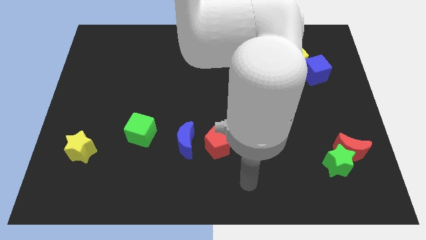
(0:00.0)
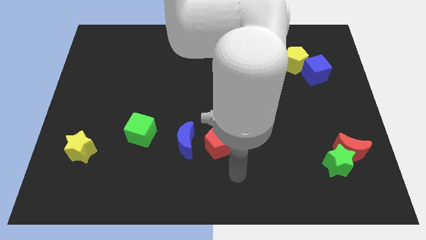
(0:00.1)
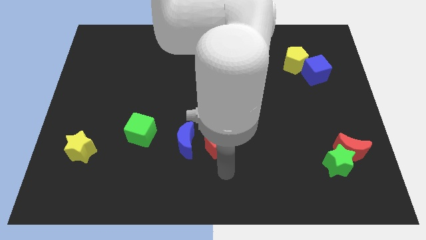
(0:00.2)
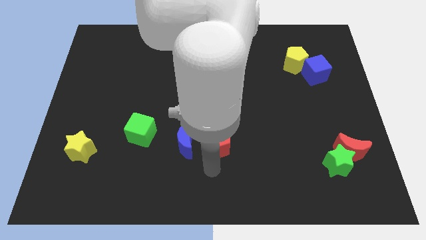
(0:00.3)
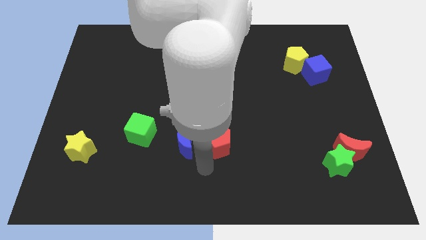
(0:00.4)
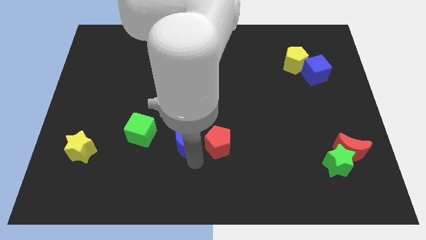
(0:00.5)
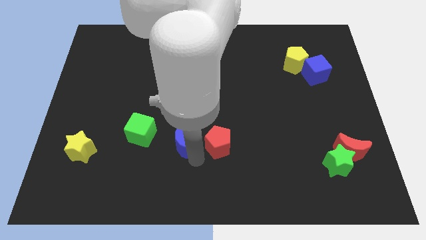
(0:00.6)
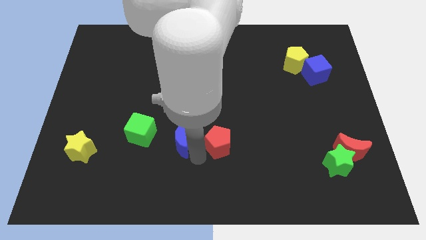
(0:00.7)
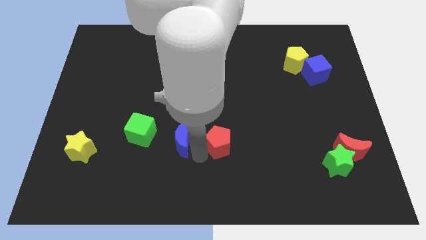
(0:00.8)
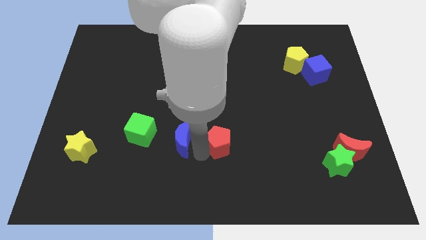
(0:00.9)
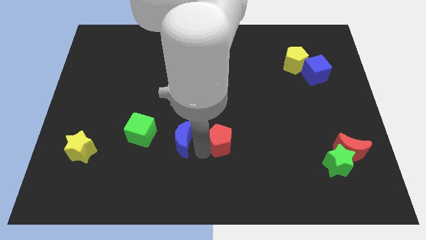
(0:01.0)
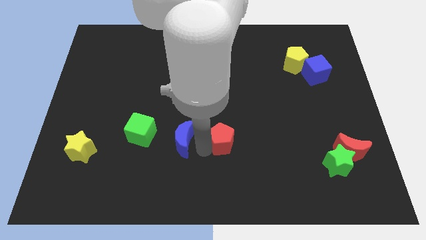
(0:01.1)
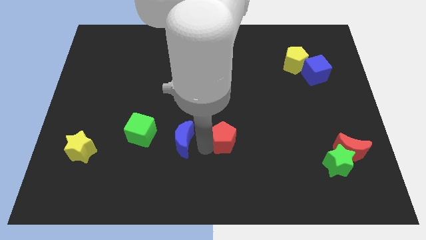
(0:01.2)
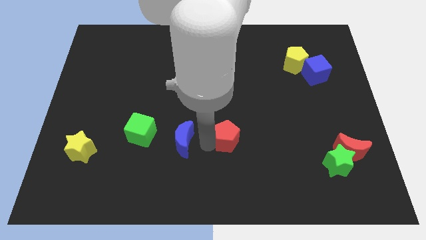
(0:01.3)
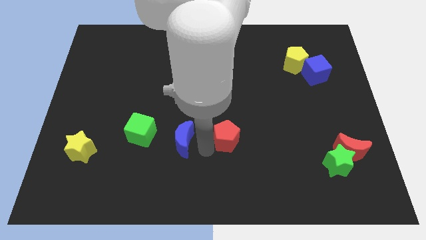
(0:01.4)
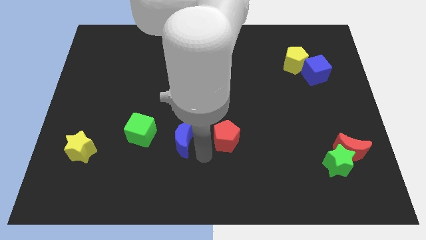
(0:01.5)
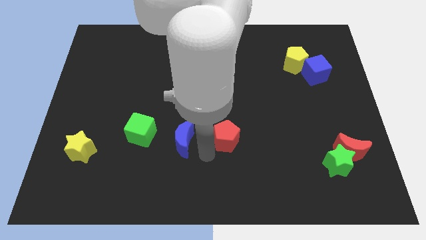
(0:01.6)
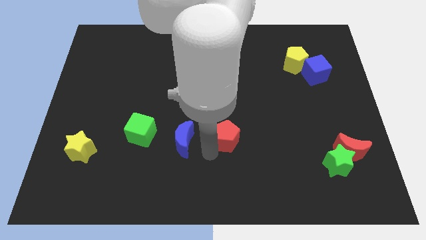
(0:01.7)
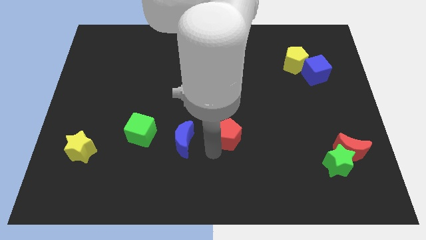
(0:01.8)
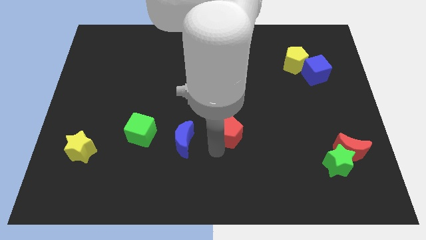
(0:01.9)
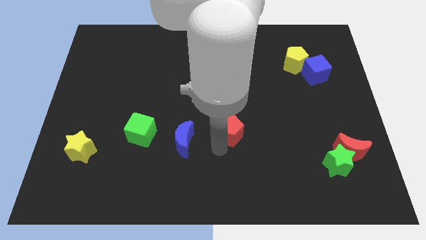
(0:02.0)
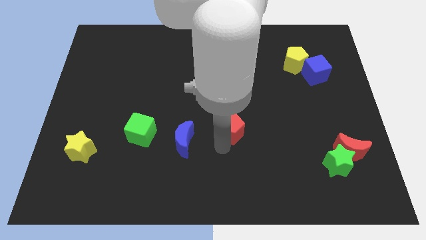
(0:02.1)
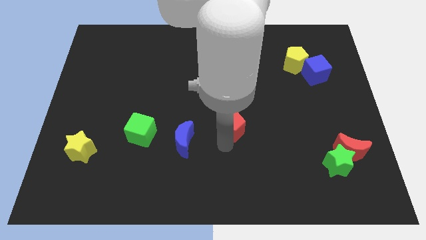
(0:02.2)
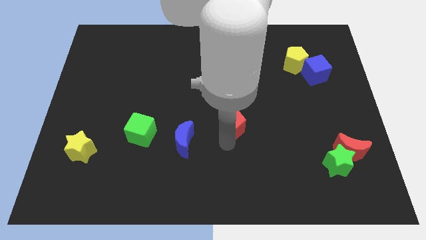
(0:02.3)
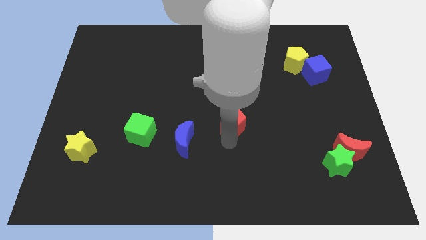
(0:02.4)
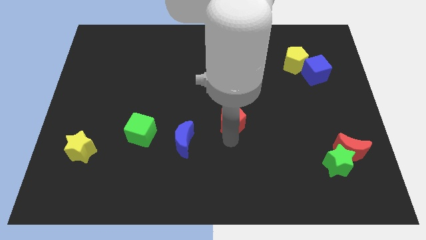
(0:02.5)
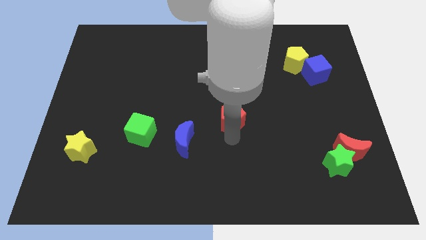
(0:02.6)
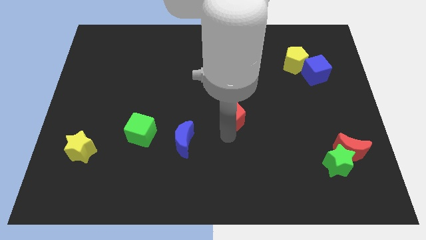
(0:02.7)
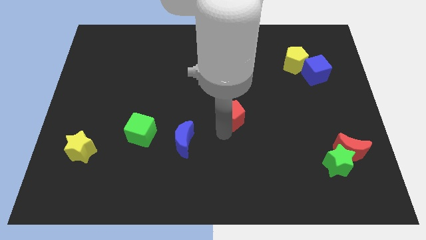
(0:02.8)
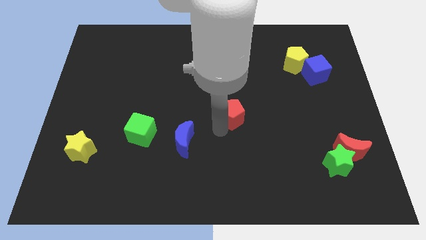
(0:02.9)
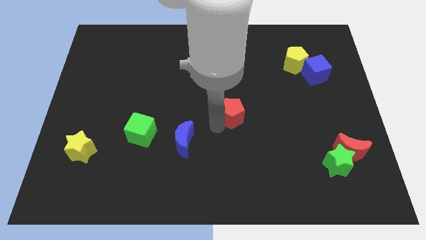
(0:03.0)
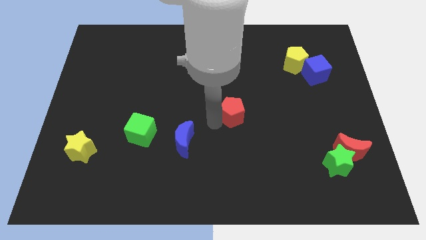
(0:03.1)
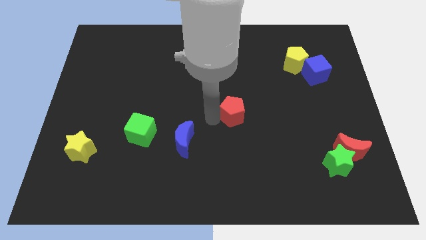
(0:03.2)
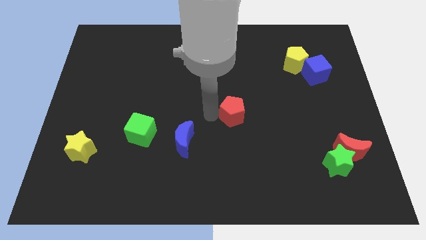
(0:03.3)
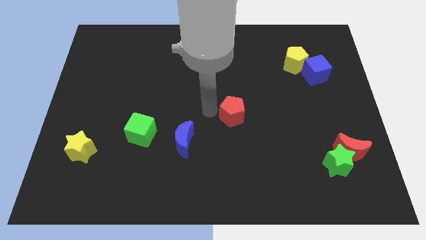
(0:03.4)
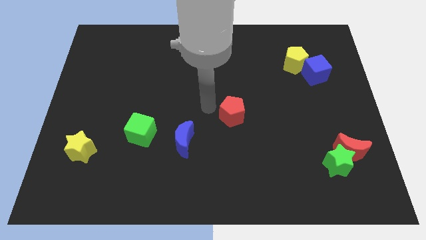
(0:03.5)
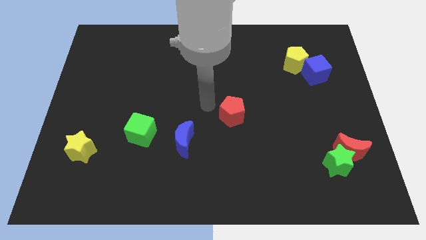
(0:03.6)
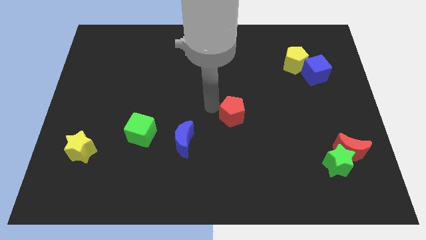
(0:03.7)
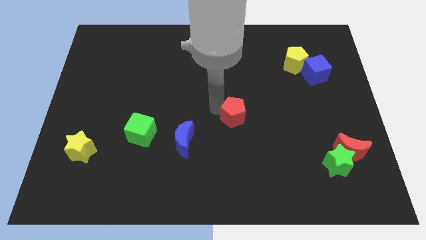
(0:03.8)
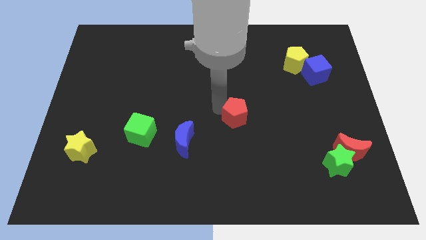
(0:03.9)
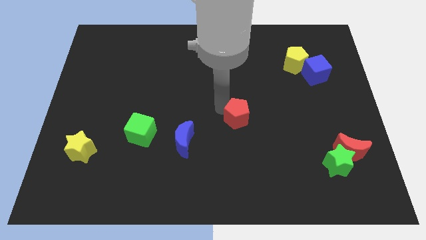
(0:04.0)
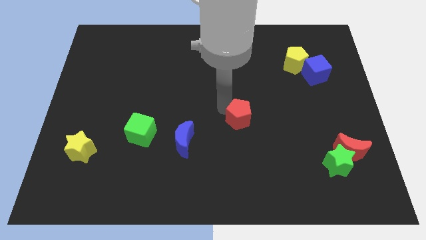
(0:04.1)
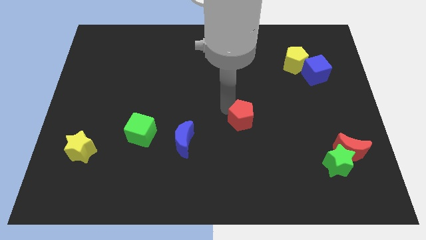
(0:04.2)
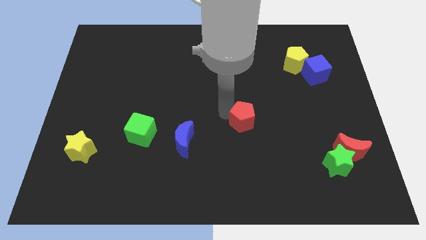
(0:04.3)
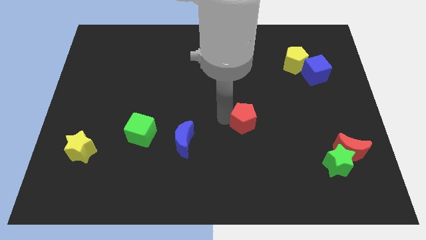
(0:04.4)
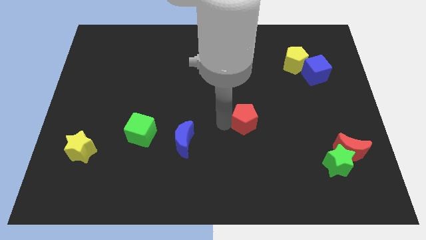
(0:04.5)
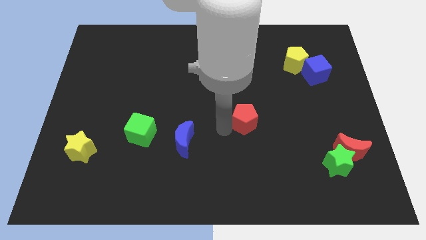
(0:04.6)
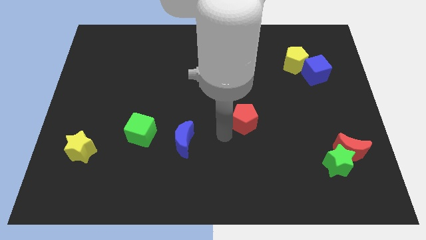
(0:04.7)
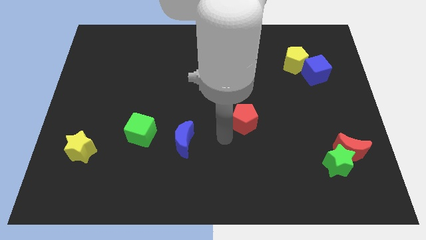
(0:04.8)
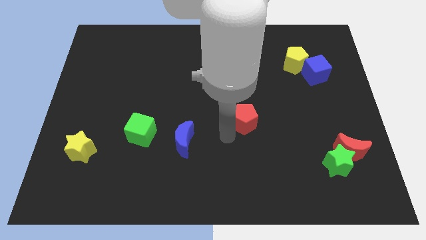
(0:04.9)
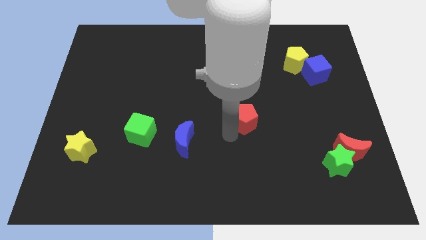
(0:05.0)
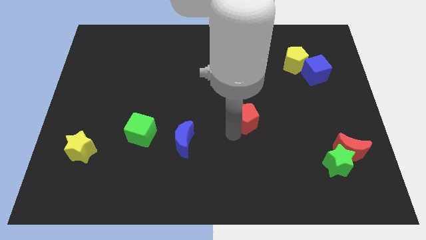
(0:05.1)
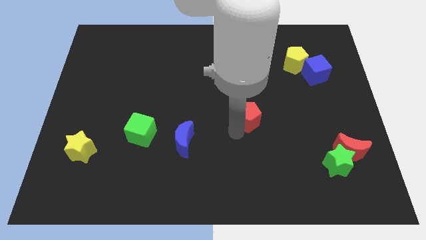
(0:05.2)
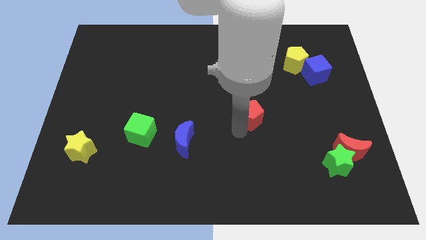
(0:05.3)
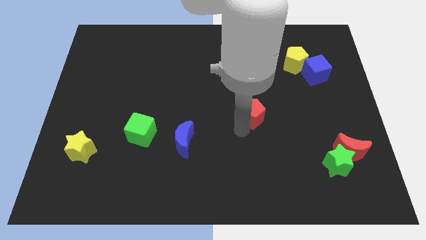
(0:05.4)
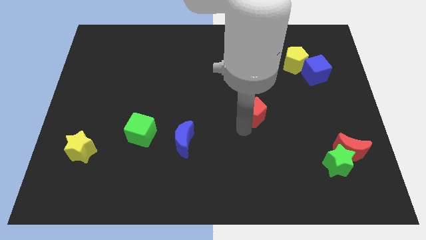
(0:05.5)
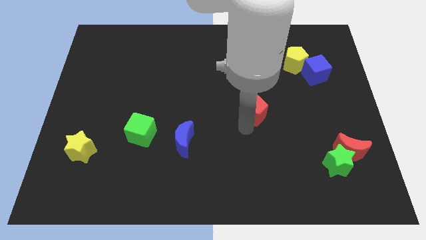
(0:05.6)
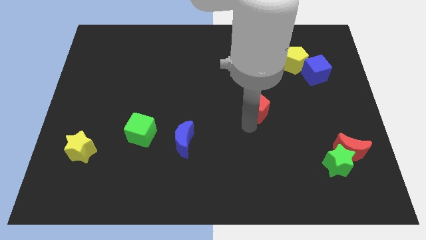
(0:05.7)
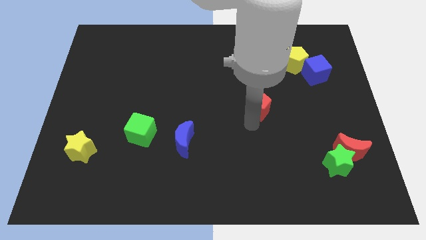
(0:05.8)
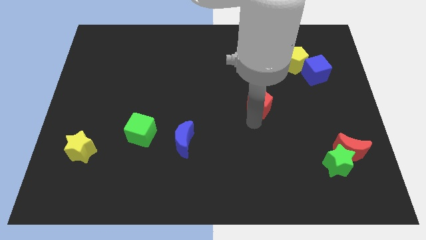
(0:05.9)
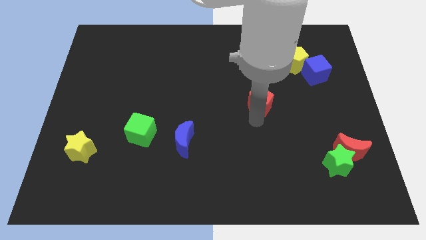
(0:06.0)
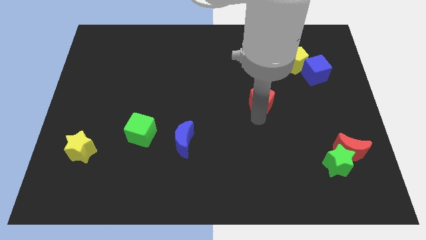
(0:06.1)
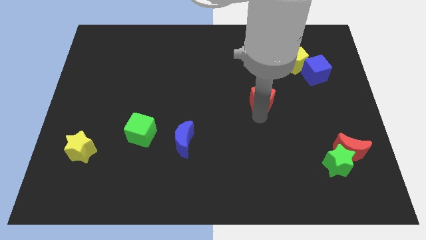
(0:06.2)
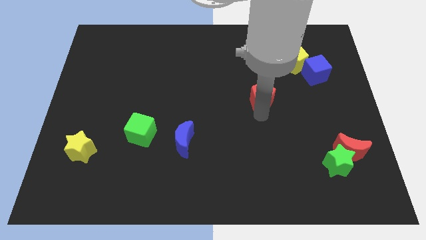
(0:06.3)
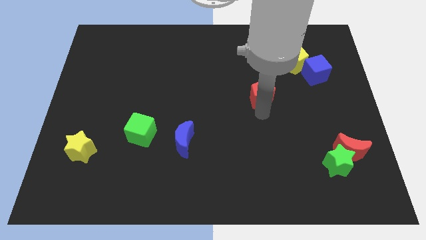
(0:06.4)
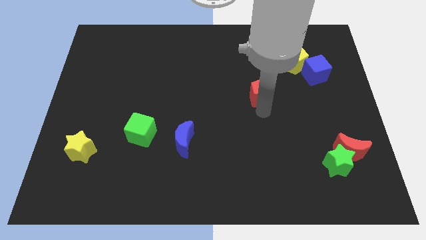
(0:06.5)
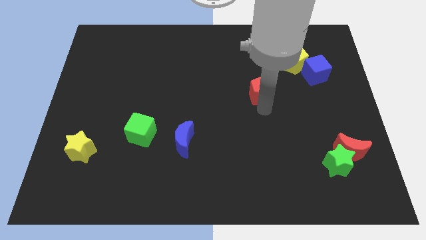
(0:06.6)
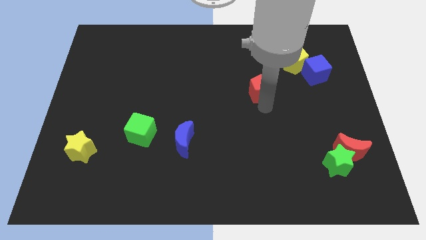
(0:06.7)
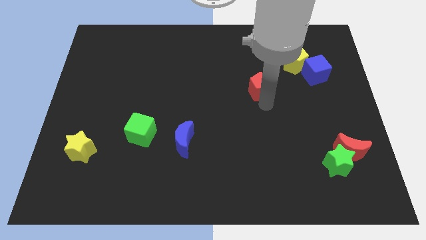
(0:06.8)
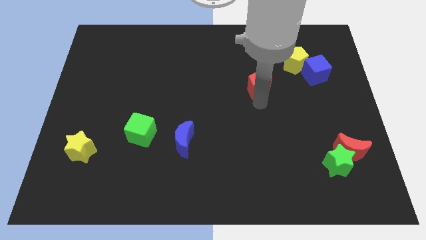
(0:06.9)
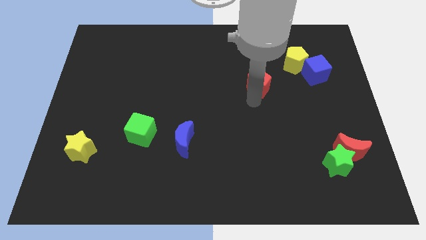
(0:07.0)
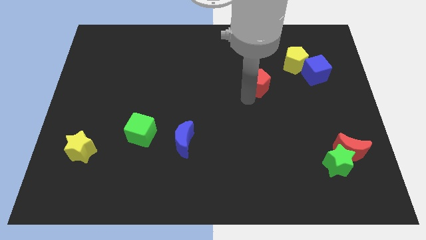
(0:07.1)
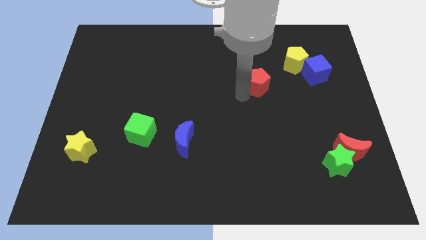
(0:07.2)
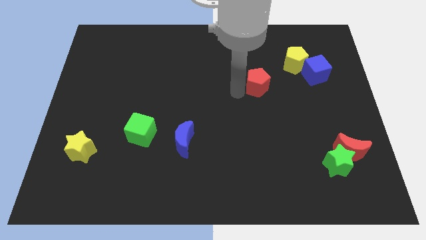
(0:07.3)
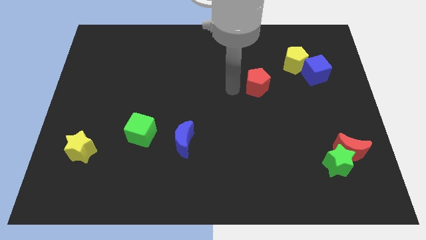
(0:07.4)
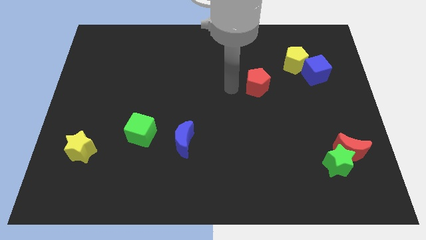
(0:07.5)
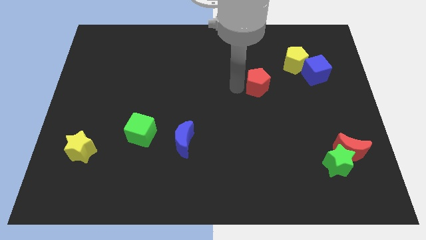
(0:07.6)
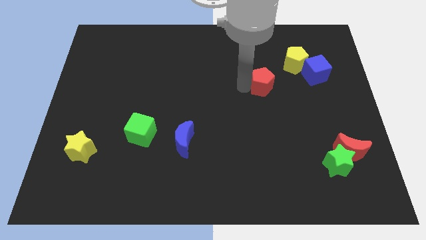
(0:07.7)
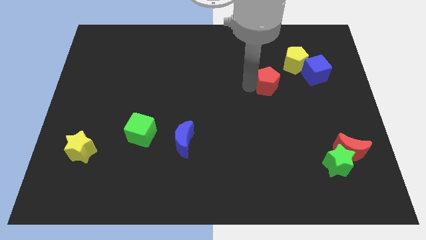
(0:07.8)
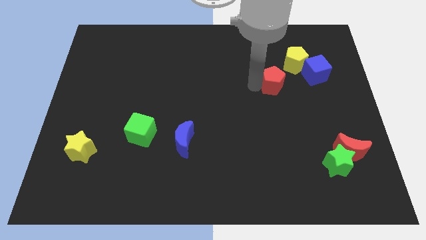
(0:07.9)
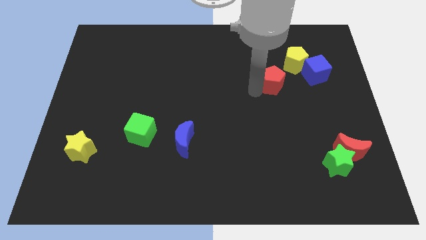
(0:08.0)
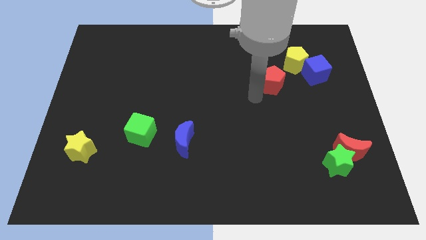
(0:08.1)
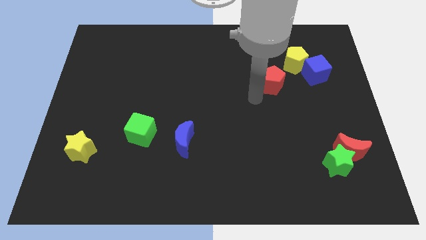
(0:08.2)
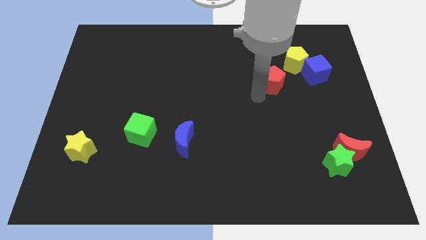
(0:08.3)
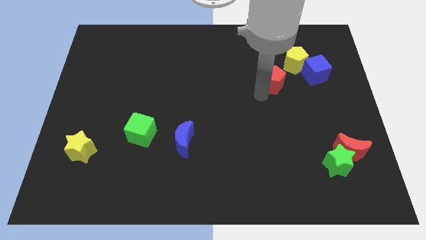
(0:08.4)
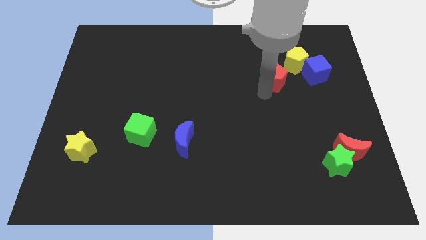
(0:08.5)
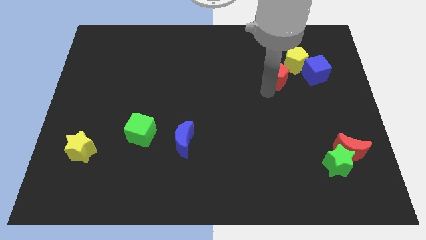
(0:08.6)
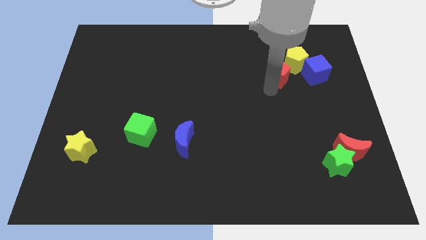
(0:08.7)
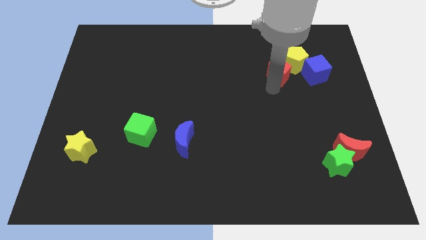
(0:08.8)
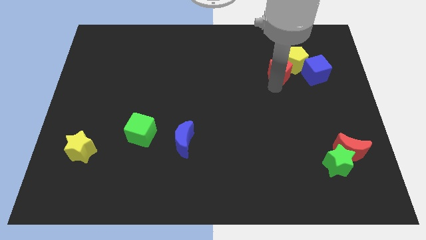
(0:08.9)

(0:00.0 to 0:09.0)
slide the red pentagon close to the yellow pentagon
